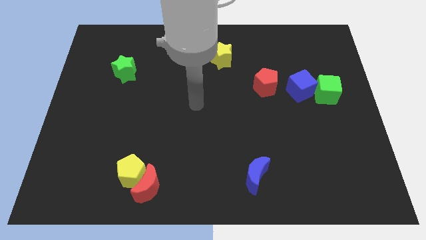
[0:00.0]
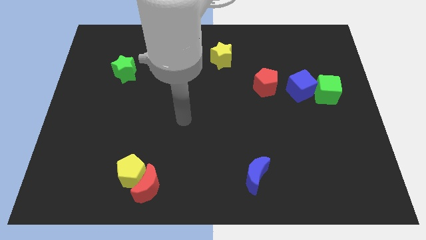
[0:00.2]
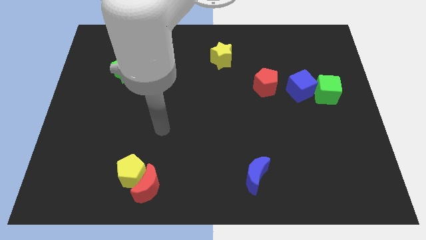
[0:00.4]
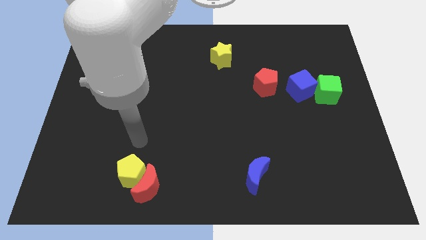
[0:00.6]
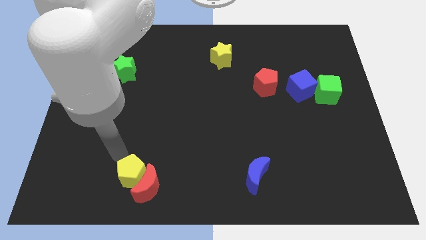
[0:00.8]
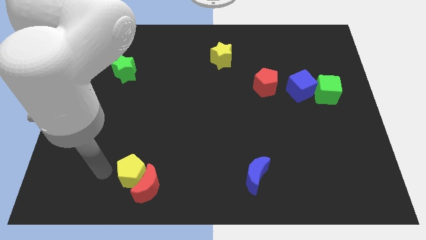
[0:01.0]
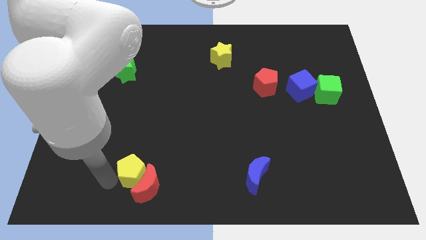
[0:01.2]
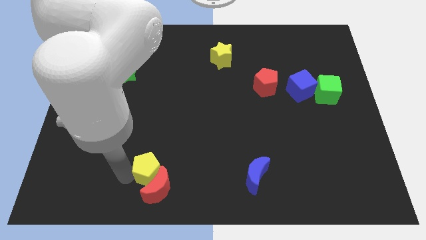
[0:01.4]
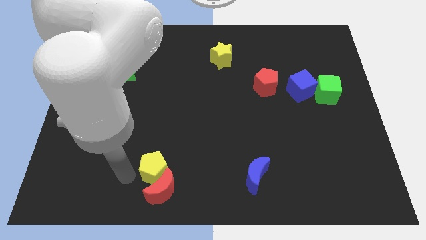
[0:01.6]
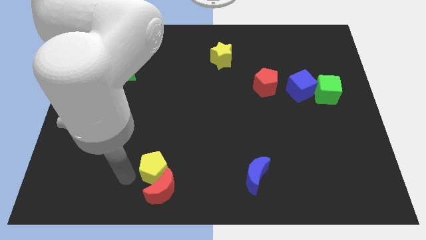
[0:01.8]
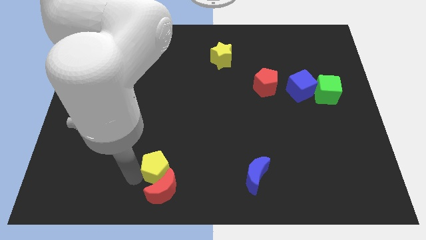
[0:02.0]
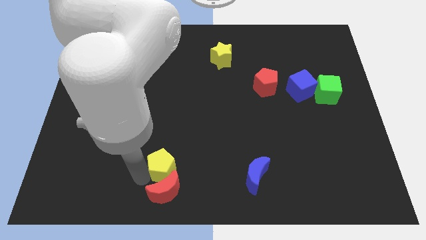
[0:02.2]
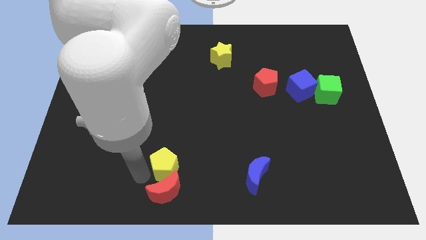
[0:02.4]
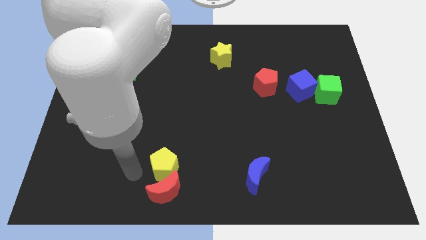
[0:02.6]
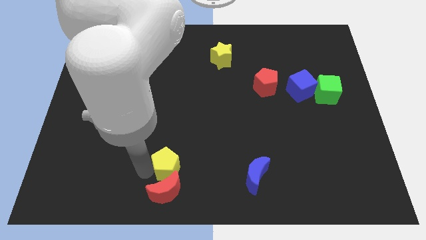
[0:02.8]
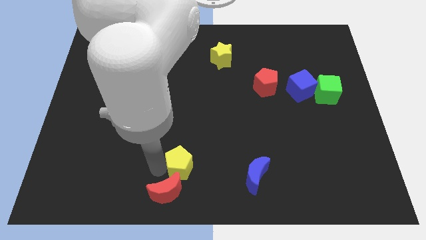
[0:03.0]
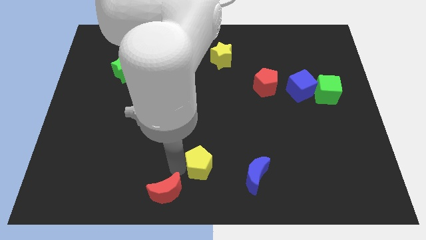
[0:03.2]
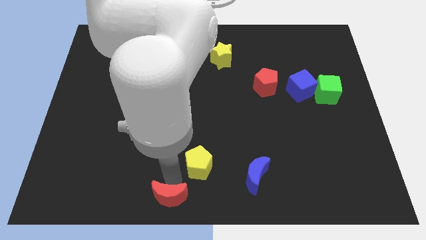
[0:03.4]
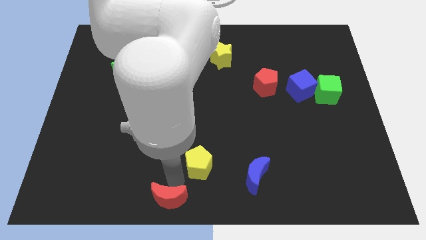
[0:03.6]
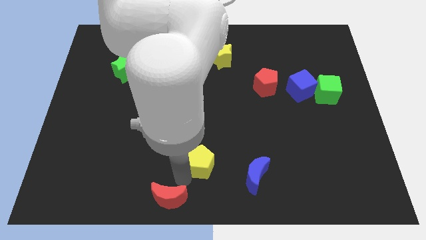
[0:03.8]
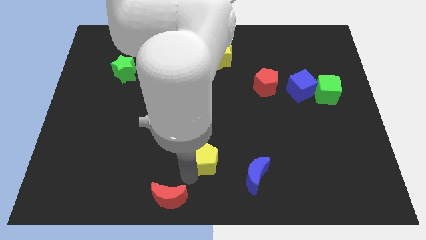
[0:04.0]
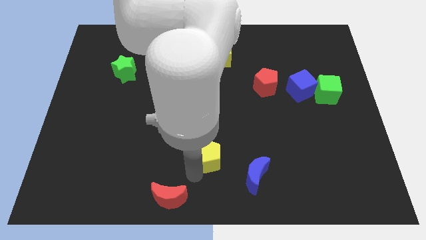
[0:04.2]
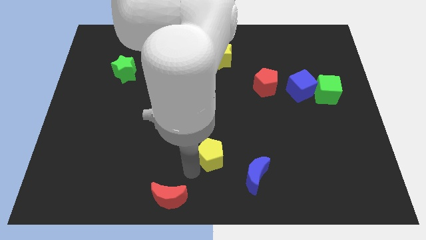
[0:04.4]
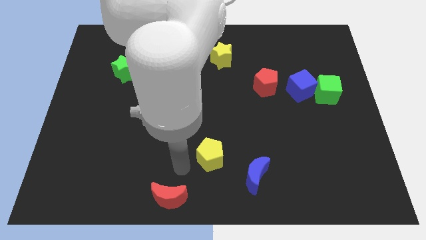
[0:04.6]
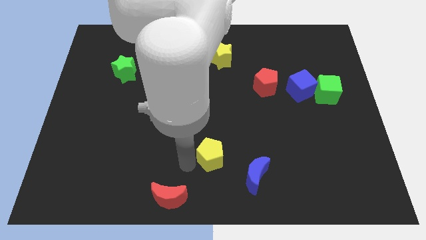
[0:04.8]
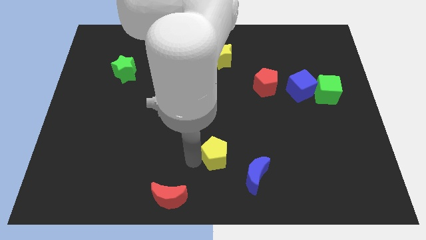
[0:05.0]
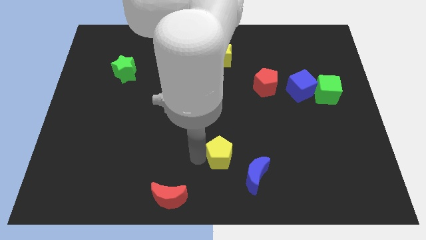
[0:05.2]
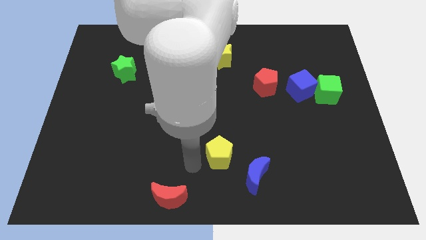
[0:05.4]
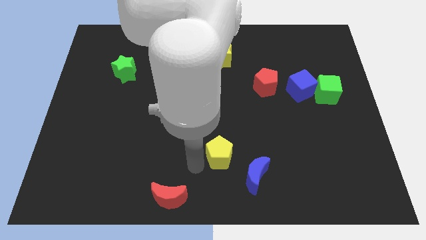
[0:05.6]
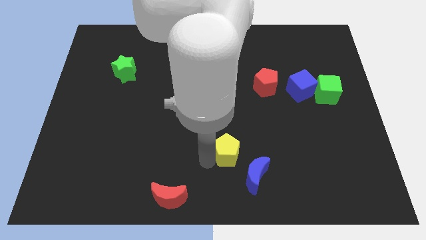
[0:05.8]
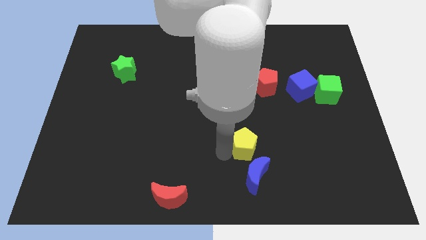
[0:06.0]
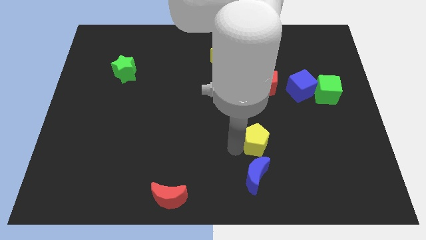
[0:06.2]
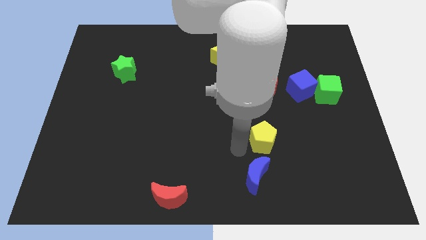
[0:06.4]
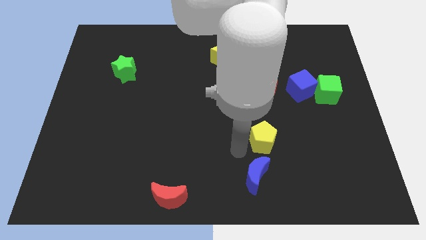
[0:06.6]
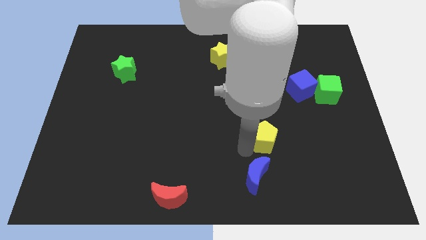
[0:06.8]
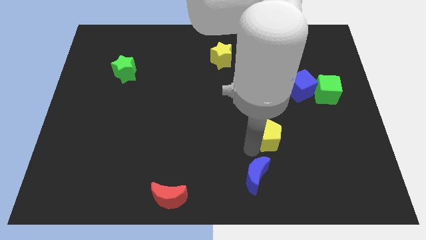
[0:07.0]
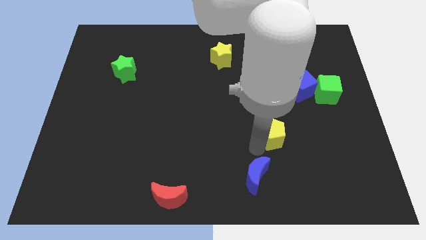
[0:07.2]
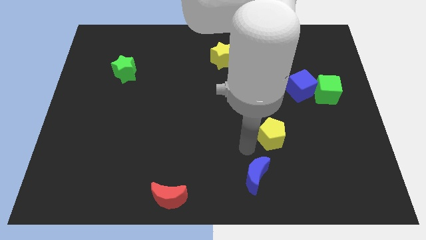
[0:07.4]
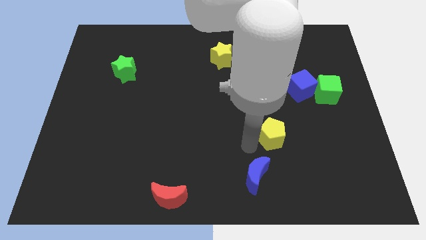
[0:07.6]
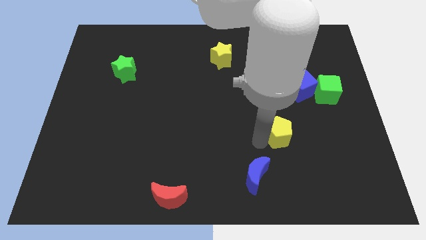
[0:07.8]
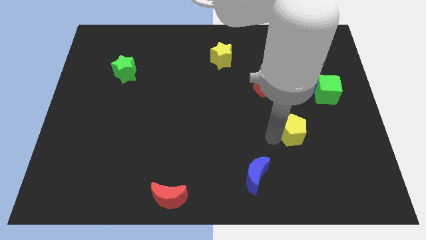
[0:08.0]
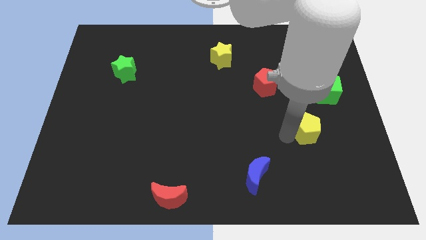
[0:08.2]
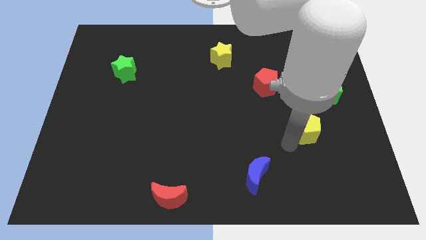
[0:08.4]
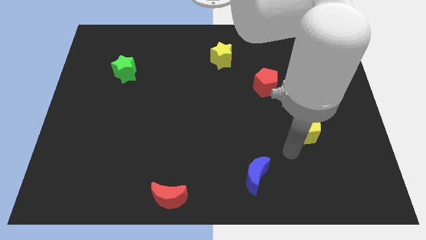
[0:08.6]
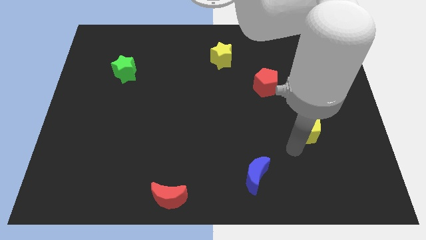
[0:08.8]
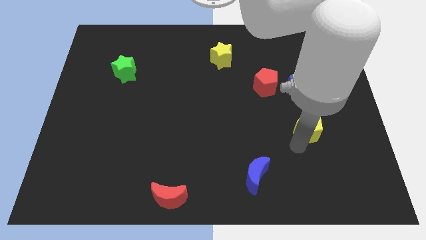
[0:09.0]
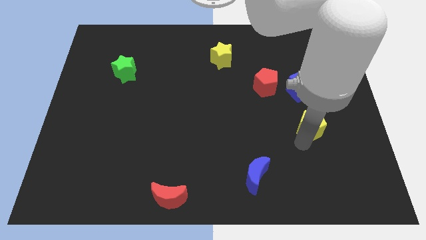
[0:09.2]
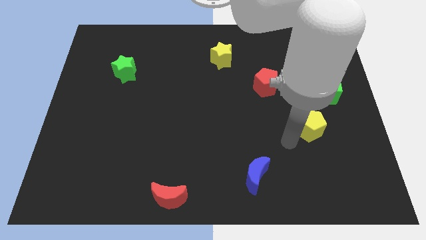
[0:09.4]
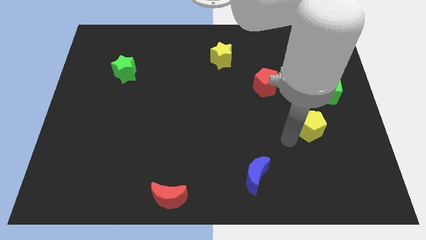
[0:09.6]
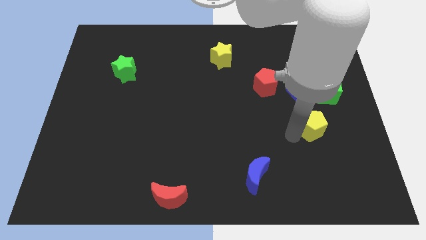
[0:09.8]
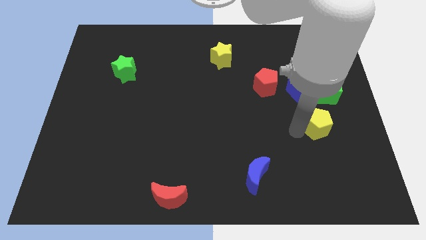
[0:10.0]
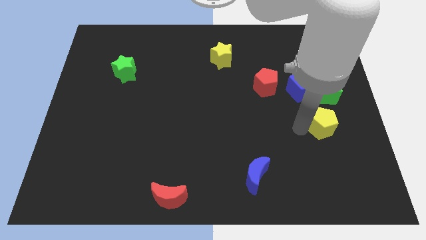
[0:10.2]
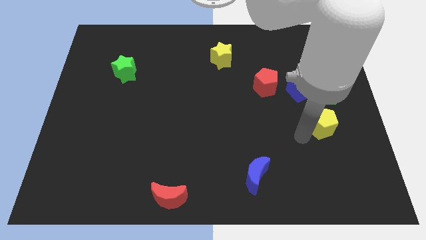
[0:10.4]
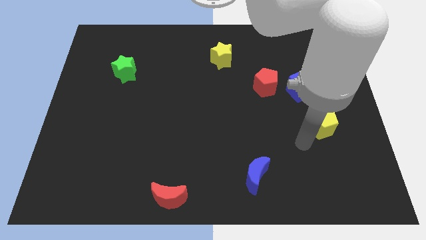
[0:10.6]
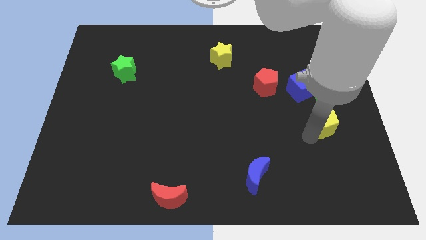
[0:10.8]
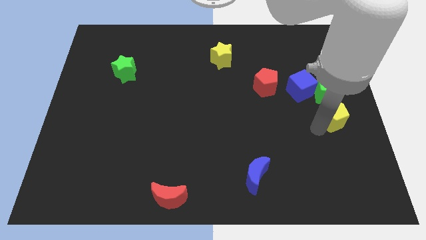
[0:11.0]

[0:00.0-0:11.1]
put the yellow pentagon to the right side
